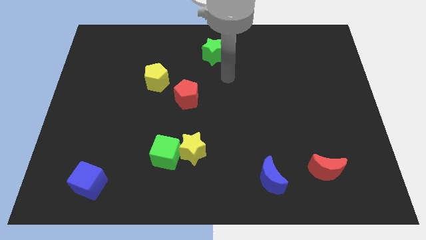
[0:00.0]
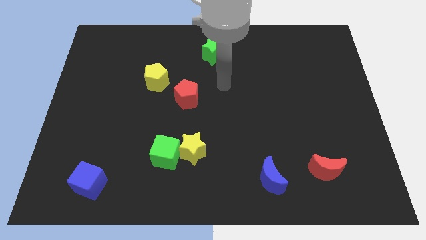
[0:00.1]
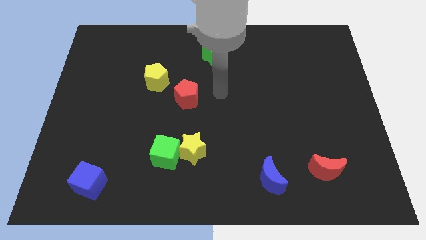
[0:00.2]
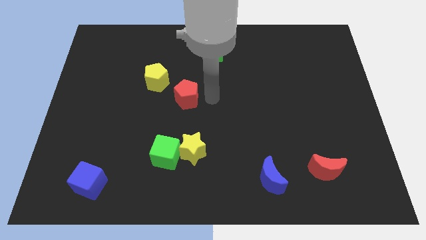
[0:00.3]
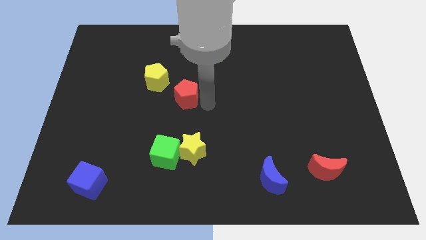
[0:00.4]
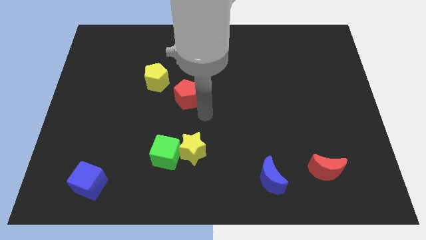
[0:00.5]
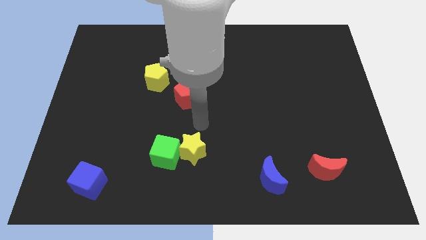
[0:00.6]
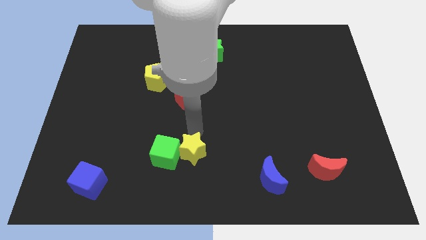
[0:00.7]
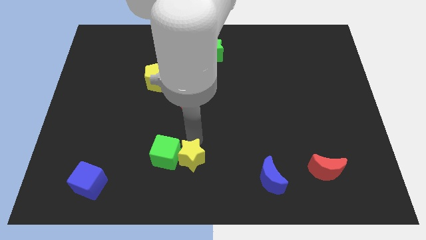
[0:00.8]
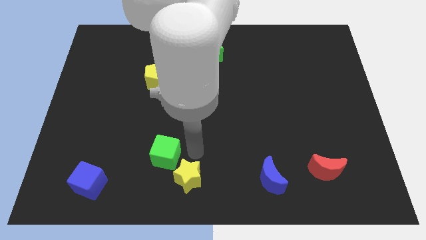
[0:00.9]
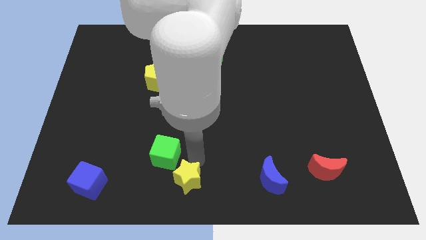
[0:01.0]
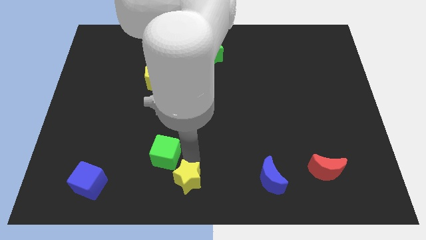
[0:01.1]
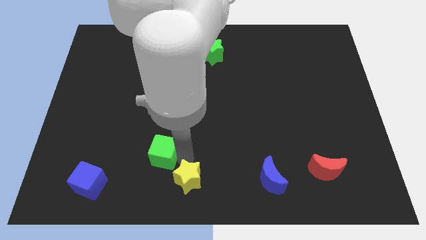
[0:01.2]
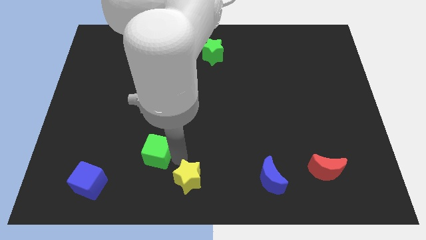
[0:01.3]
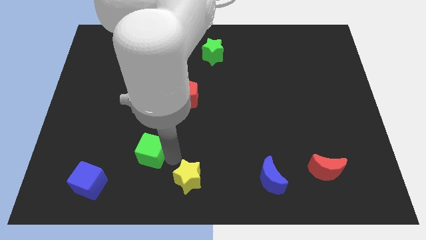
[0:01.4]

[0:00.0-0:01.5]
move the green cube away from the yellow star

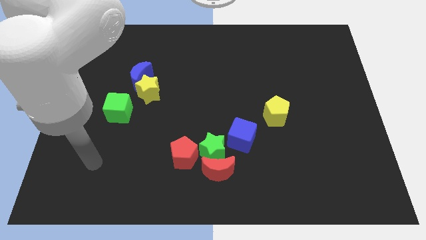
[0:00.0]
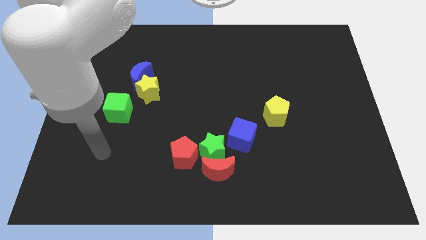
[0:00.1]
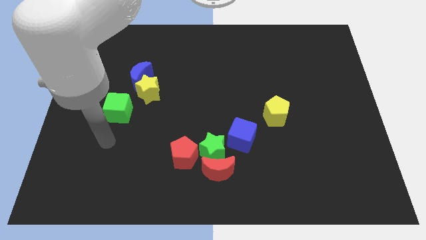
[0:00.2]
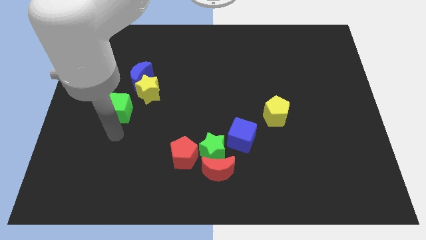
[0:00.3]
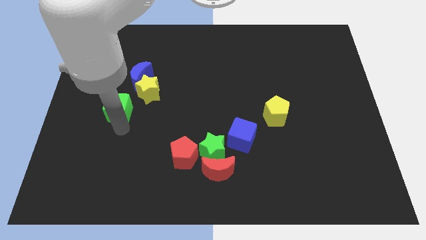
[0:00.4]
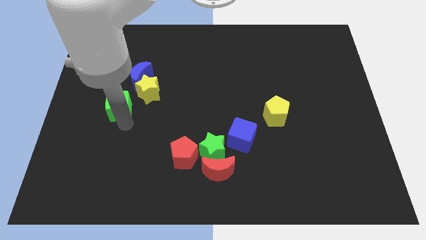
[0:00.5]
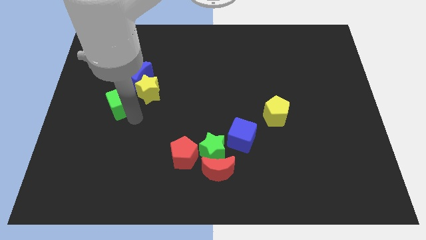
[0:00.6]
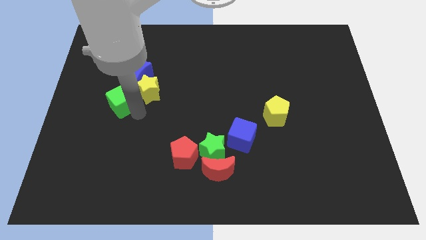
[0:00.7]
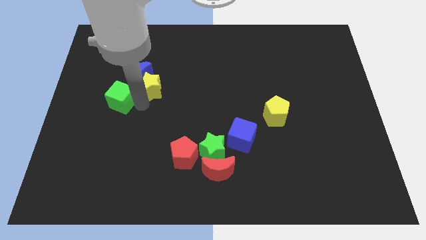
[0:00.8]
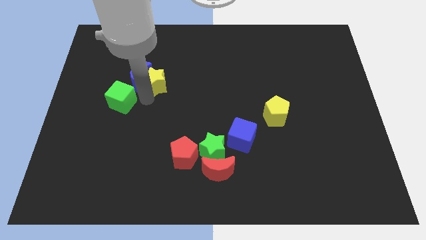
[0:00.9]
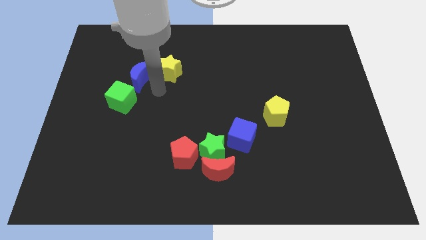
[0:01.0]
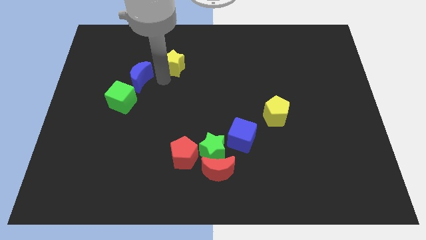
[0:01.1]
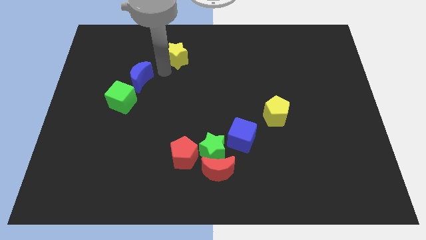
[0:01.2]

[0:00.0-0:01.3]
move the blue moon away from the yellow star

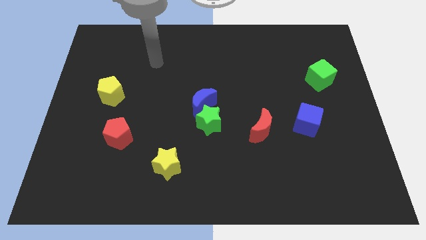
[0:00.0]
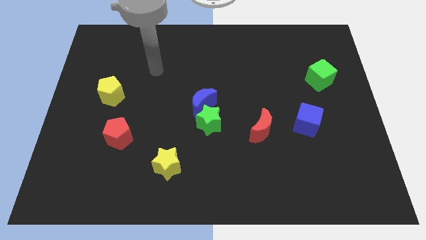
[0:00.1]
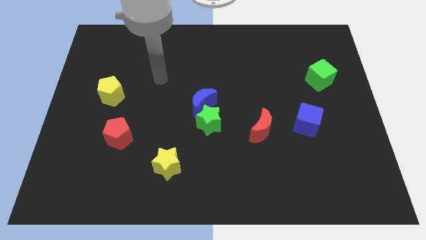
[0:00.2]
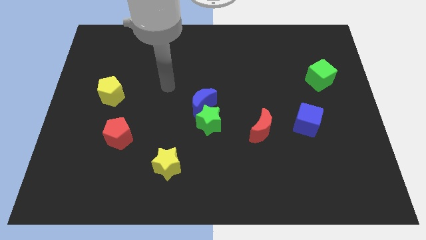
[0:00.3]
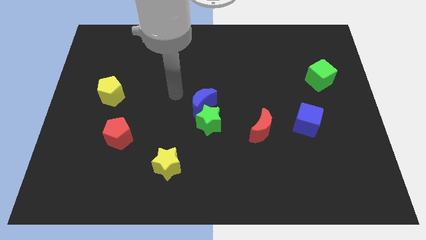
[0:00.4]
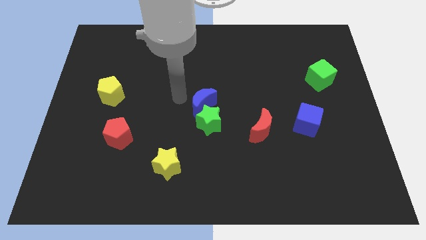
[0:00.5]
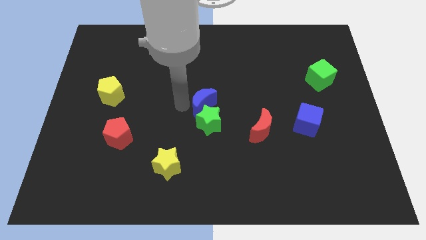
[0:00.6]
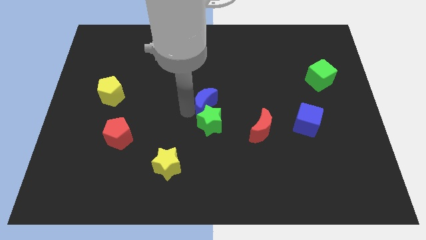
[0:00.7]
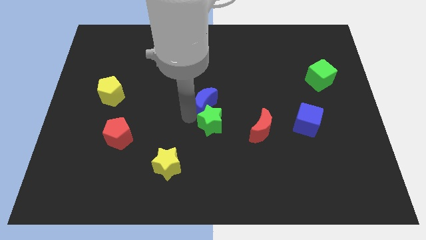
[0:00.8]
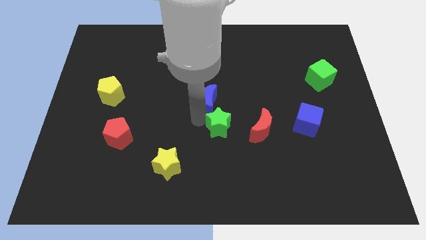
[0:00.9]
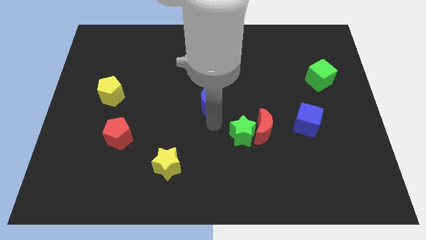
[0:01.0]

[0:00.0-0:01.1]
move the blue moon away from the green star

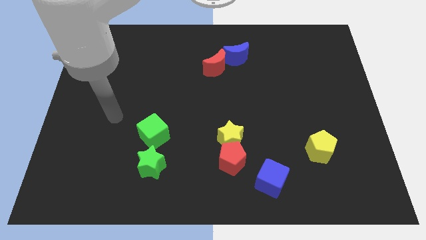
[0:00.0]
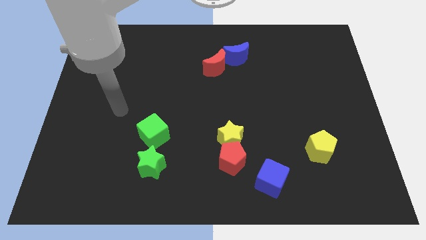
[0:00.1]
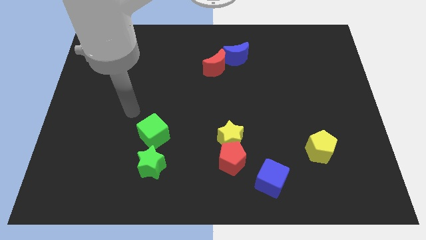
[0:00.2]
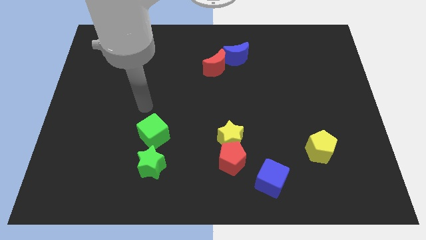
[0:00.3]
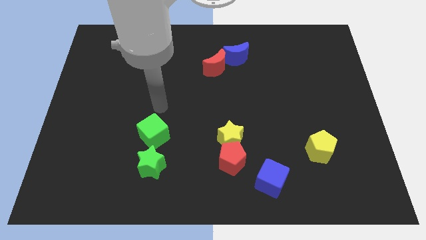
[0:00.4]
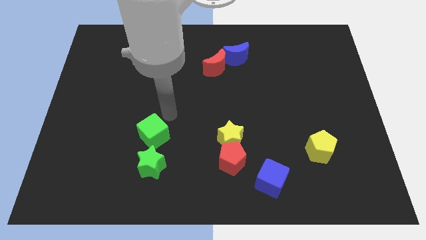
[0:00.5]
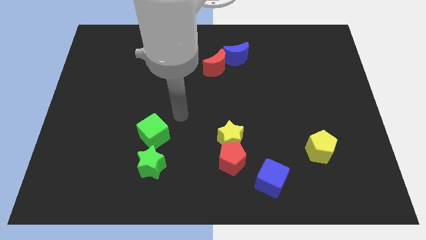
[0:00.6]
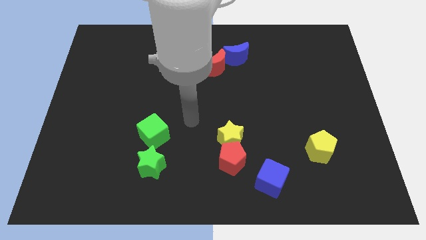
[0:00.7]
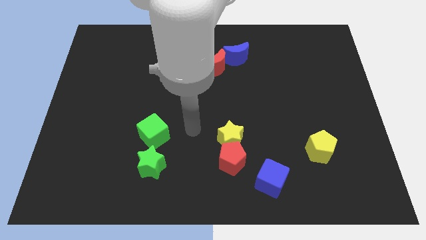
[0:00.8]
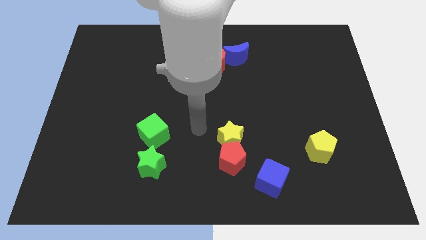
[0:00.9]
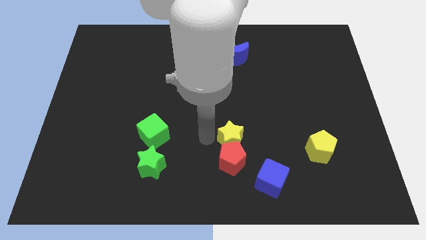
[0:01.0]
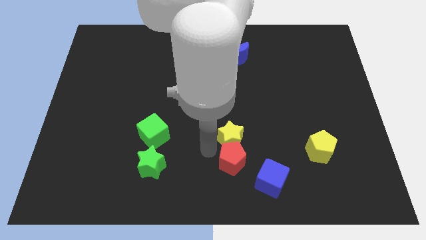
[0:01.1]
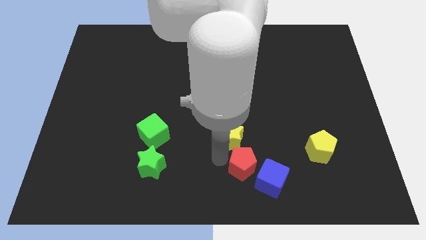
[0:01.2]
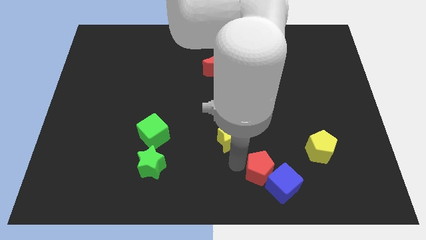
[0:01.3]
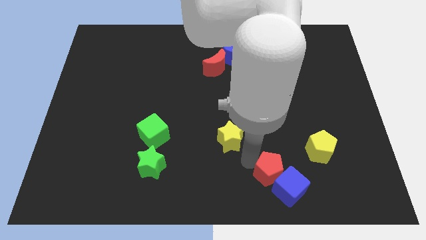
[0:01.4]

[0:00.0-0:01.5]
move the yellow star away from the red pentagon

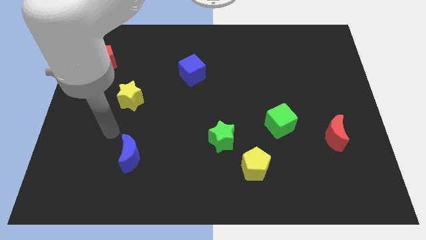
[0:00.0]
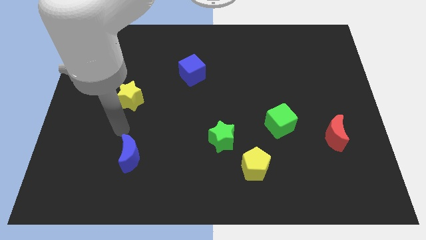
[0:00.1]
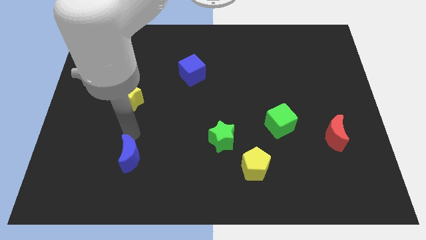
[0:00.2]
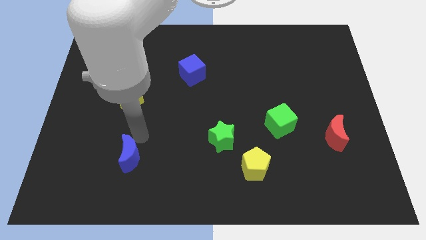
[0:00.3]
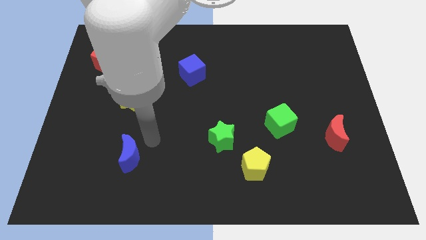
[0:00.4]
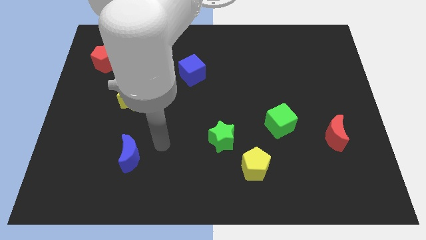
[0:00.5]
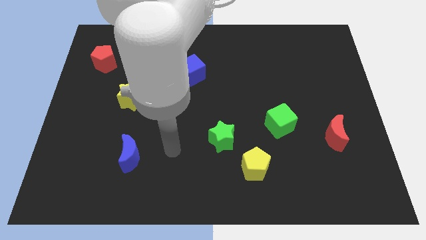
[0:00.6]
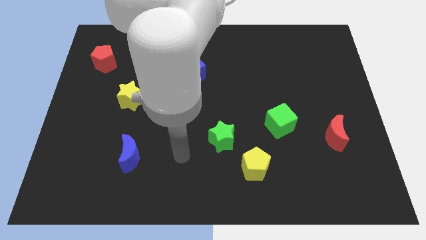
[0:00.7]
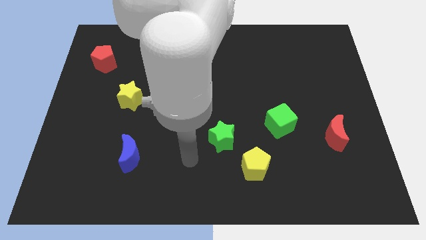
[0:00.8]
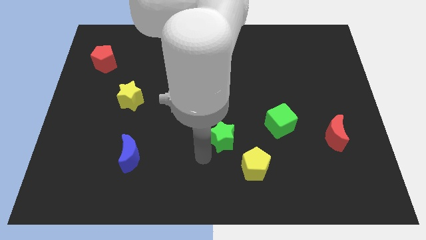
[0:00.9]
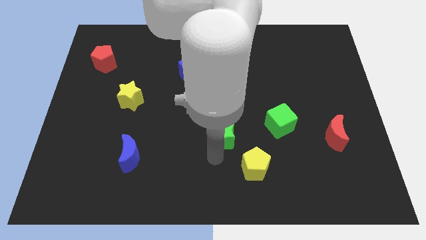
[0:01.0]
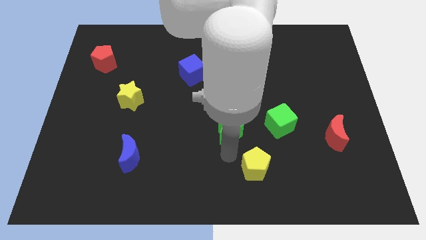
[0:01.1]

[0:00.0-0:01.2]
move the green star away from the yellow pentagon

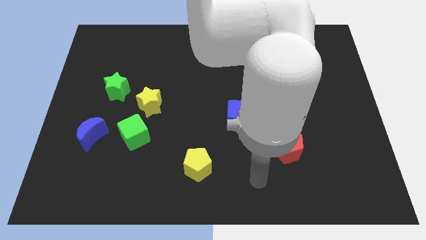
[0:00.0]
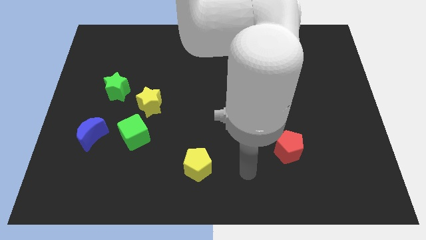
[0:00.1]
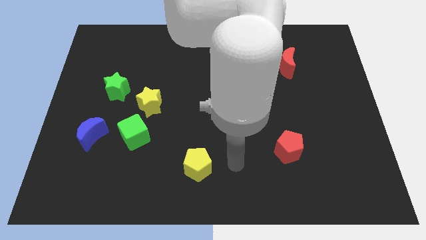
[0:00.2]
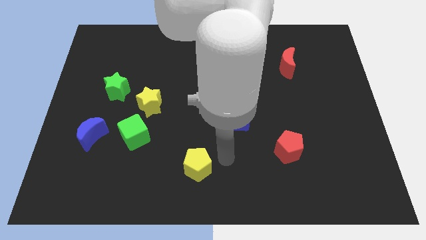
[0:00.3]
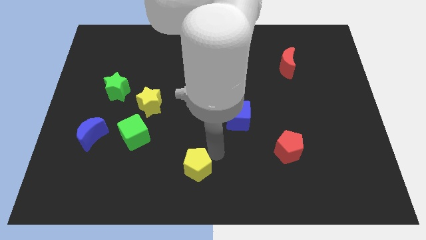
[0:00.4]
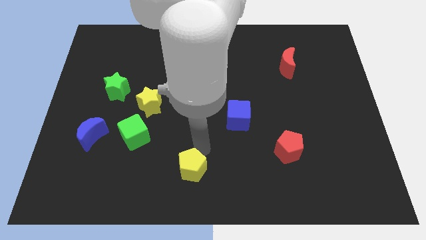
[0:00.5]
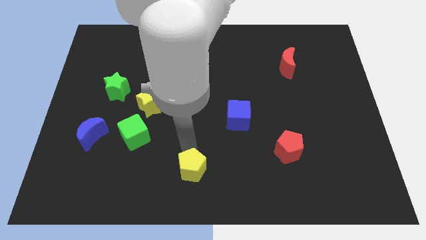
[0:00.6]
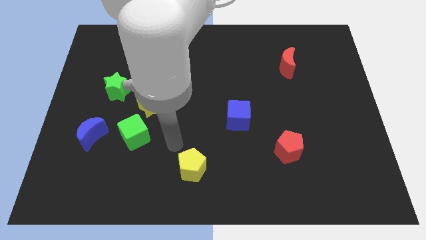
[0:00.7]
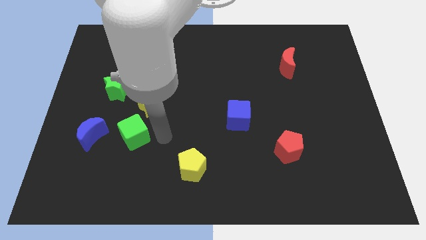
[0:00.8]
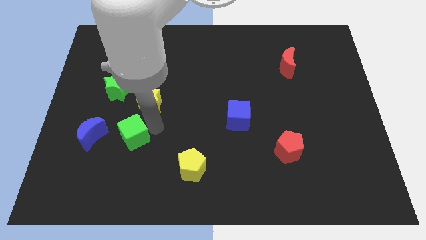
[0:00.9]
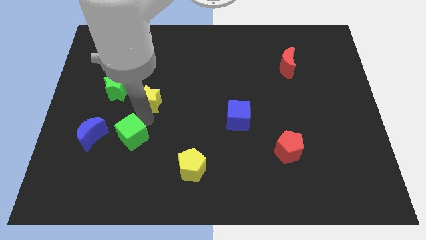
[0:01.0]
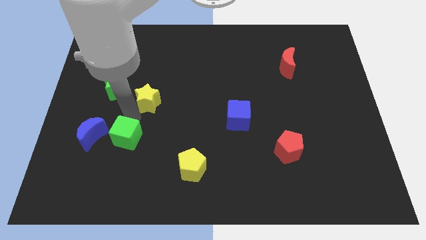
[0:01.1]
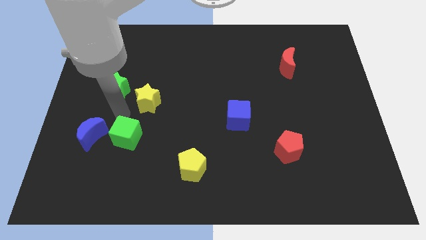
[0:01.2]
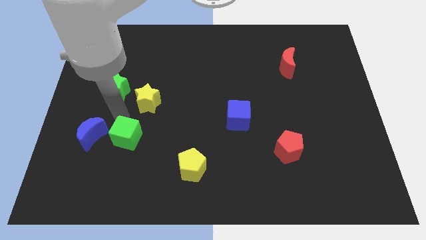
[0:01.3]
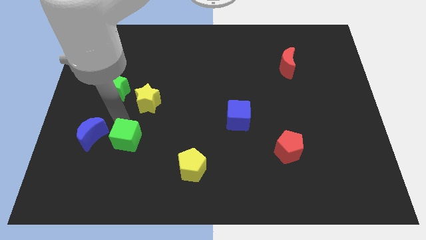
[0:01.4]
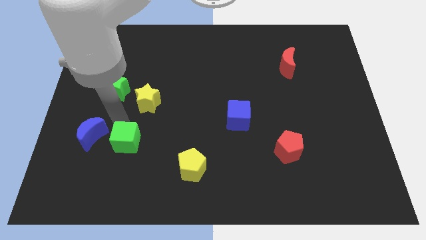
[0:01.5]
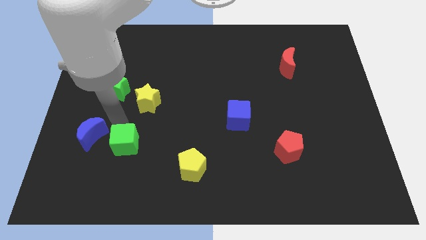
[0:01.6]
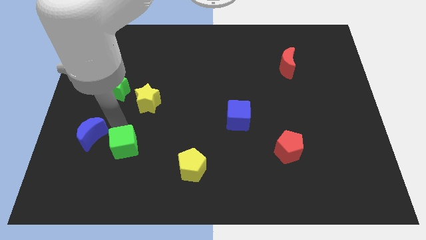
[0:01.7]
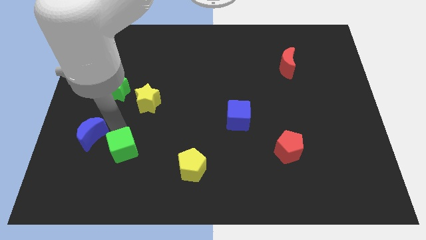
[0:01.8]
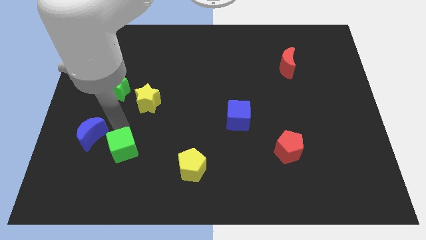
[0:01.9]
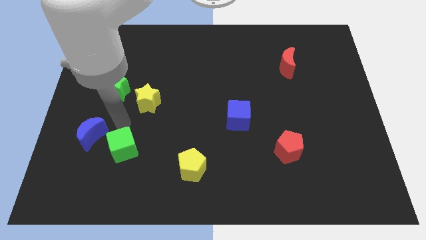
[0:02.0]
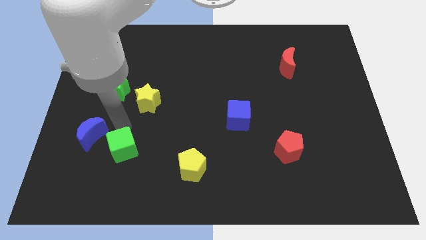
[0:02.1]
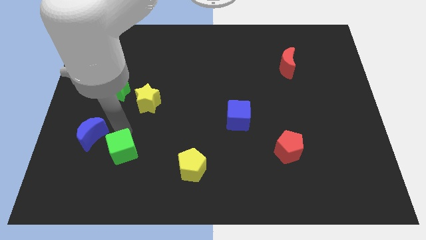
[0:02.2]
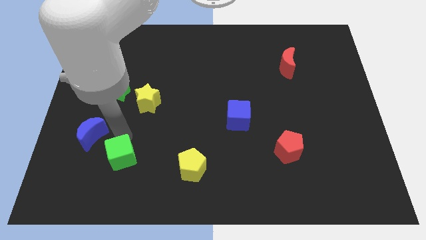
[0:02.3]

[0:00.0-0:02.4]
pull the green cube apart from the yellow star and blue moon

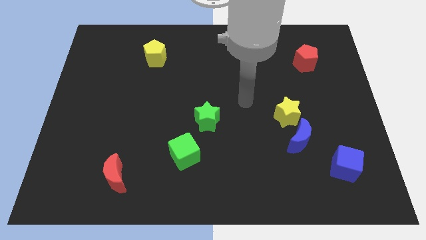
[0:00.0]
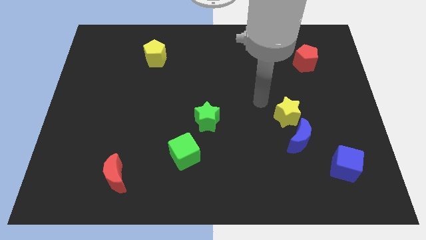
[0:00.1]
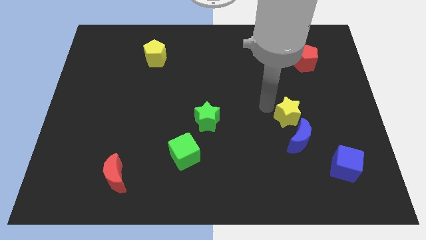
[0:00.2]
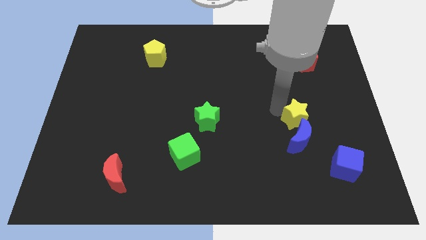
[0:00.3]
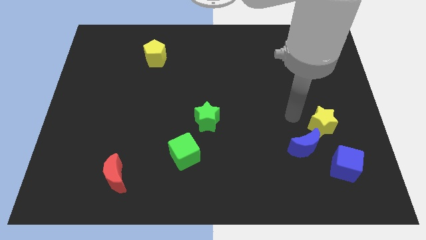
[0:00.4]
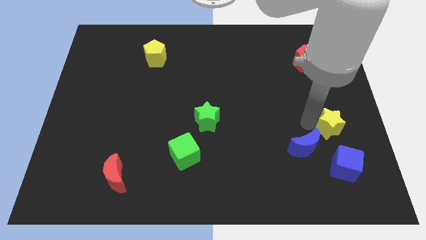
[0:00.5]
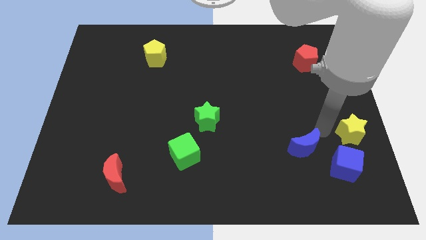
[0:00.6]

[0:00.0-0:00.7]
pull the blue moon apart from the yellow star
